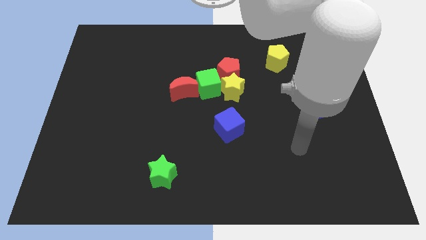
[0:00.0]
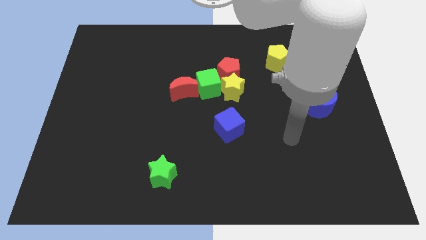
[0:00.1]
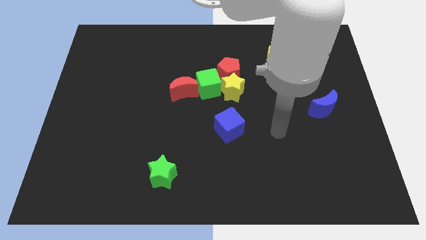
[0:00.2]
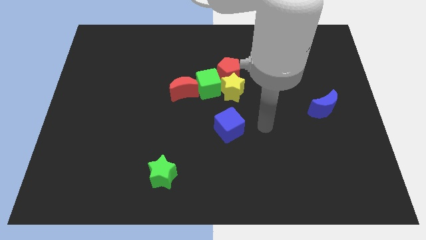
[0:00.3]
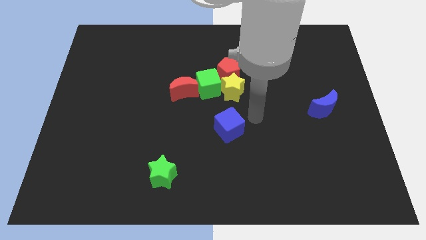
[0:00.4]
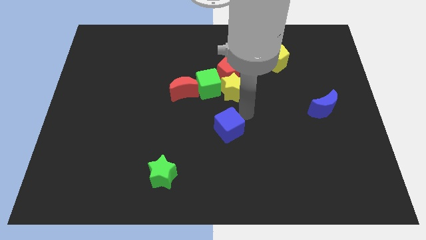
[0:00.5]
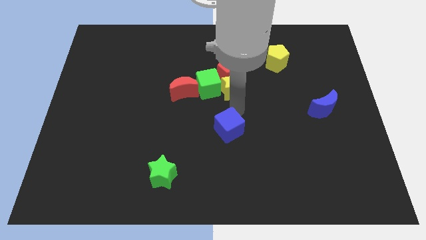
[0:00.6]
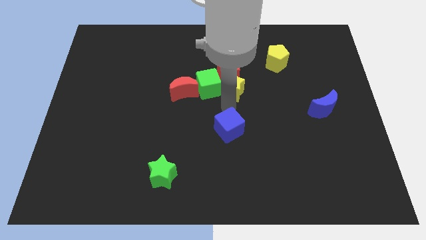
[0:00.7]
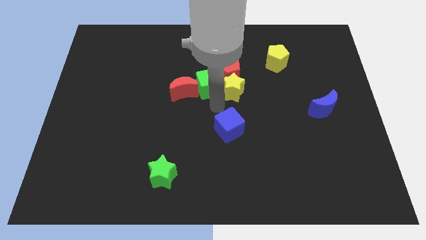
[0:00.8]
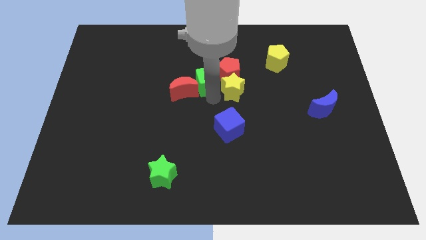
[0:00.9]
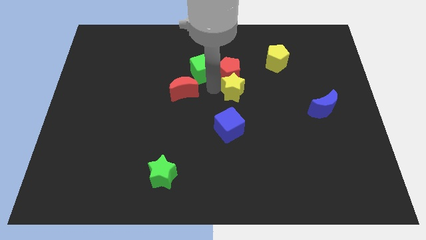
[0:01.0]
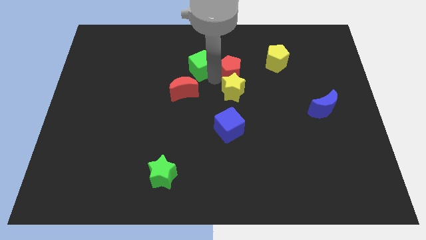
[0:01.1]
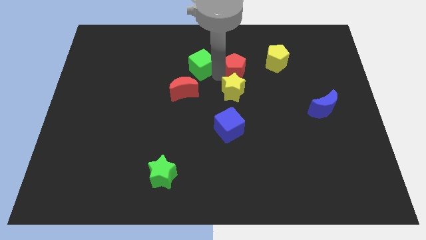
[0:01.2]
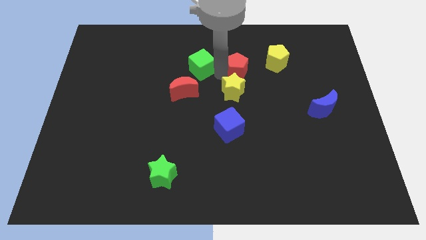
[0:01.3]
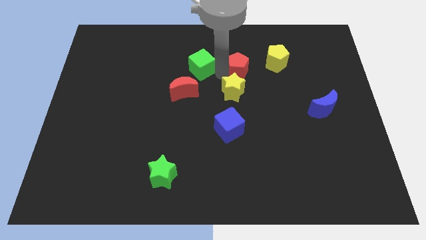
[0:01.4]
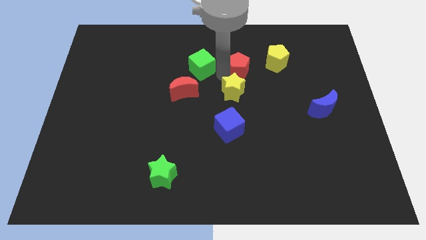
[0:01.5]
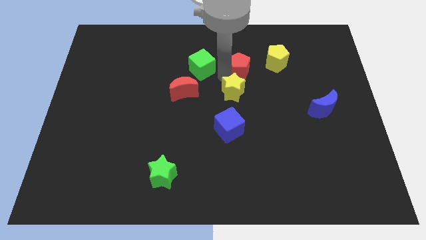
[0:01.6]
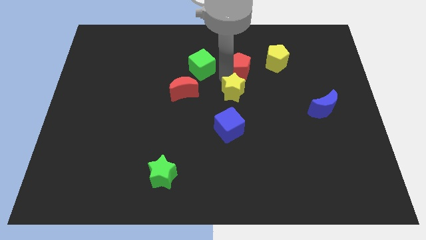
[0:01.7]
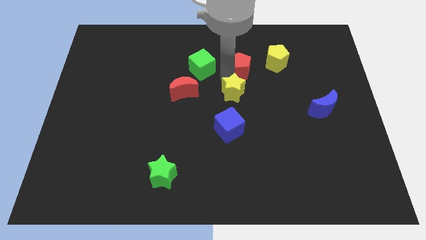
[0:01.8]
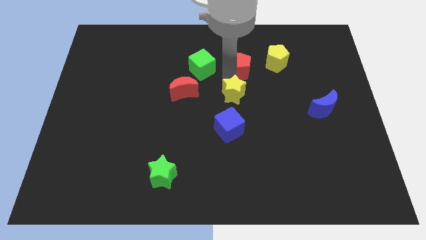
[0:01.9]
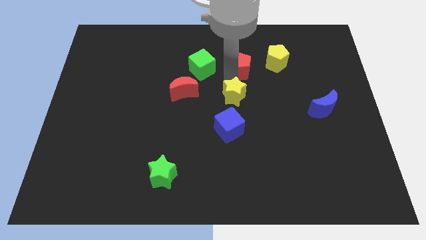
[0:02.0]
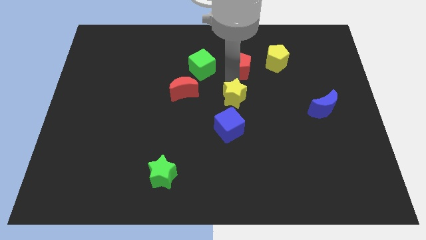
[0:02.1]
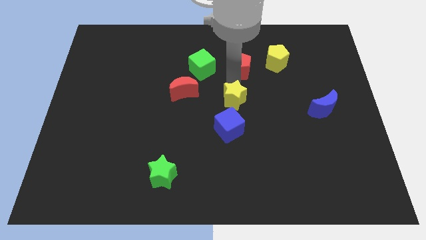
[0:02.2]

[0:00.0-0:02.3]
move the yellow star away from the red pentagon and green cube

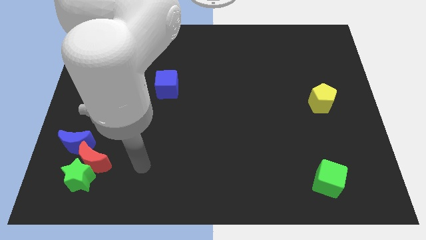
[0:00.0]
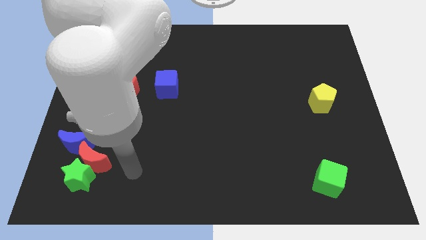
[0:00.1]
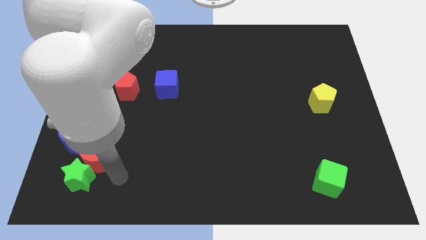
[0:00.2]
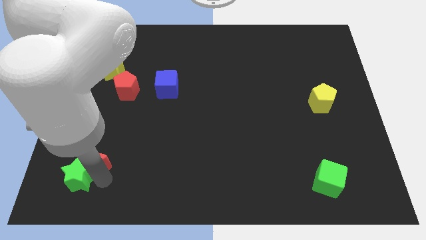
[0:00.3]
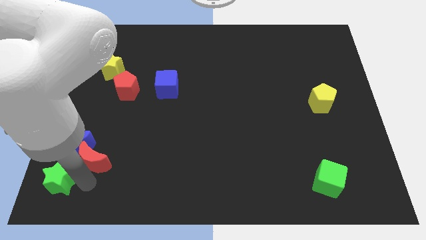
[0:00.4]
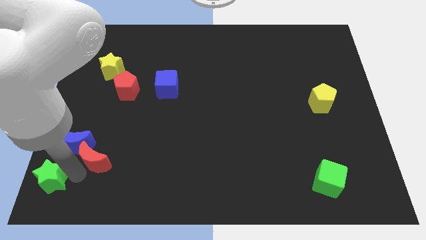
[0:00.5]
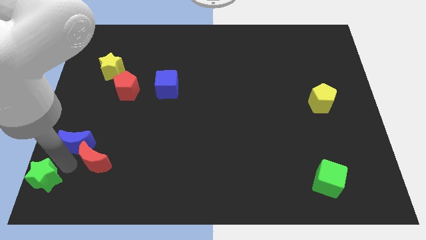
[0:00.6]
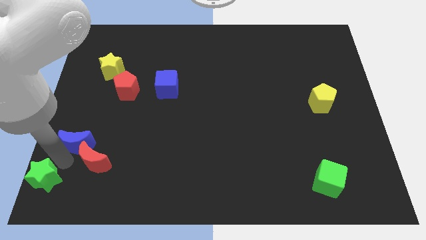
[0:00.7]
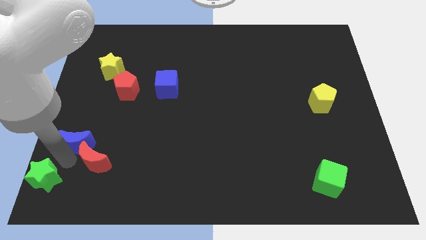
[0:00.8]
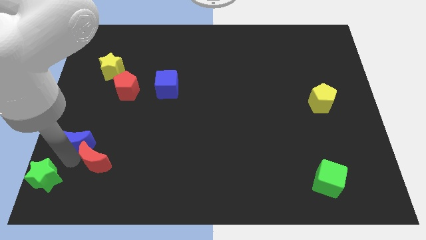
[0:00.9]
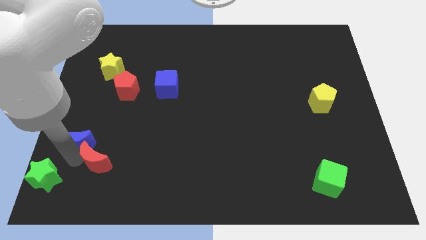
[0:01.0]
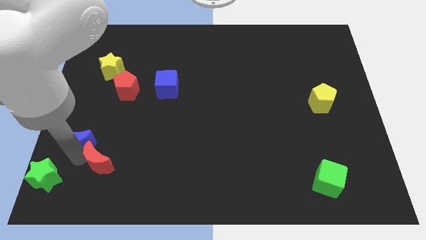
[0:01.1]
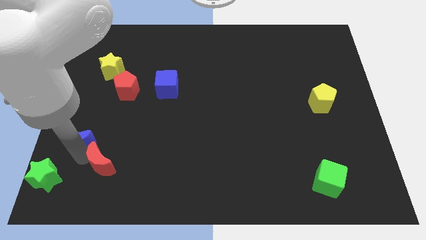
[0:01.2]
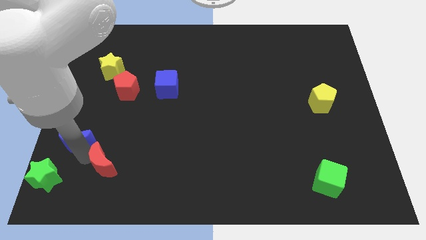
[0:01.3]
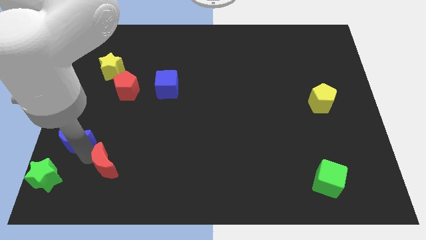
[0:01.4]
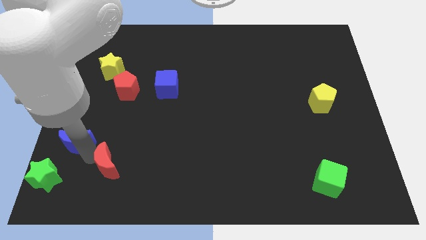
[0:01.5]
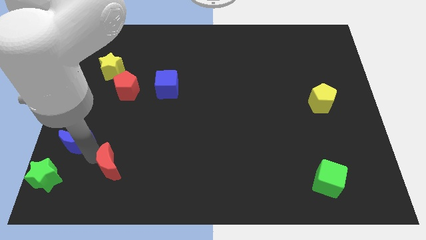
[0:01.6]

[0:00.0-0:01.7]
pull the red moon apart from the green star and blue moon

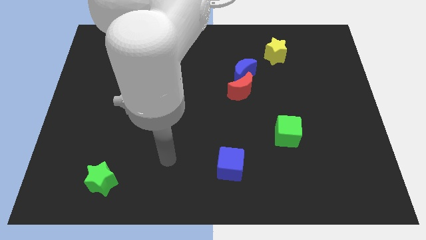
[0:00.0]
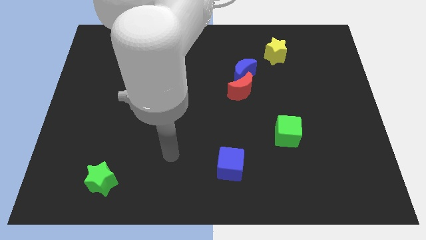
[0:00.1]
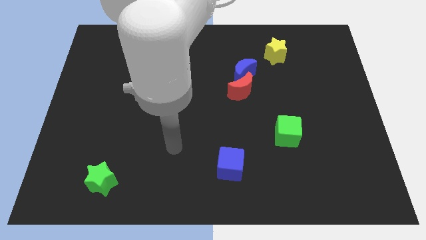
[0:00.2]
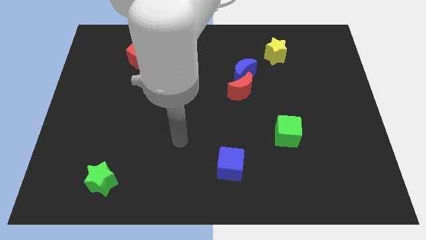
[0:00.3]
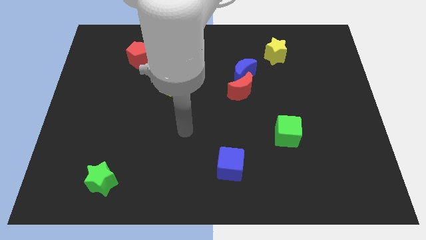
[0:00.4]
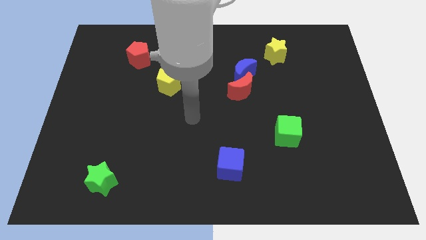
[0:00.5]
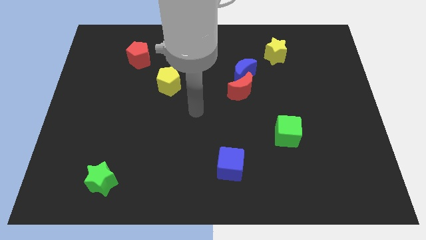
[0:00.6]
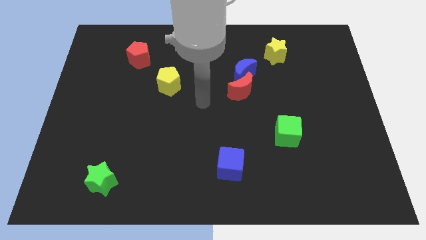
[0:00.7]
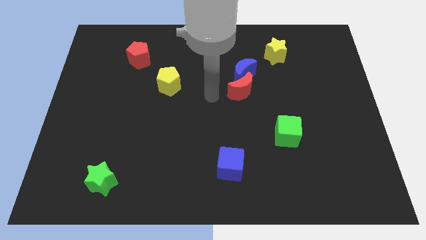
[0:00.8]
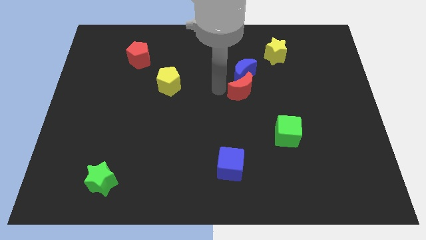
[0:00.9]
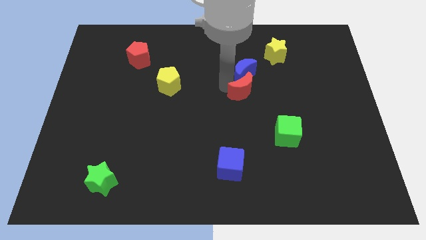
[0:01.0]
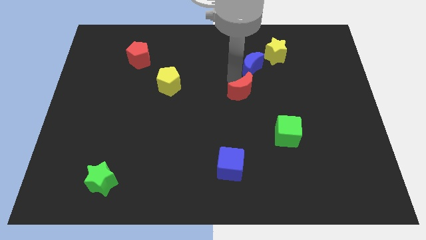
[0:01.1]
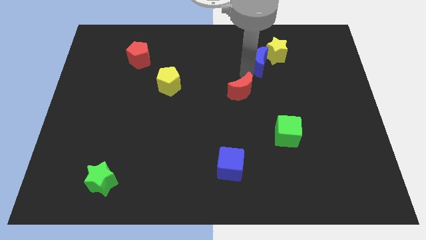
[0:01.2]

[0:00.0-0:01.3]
move the red moon away from the blue moon

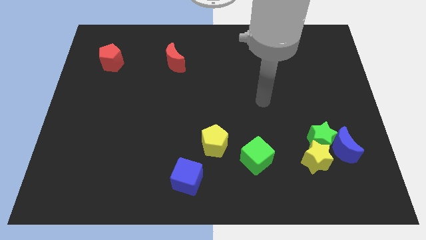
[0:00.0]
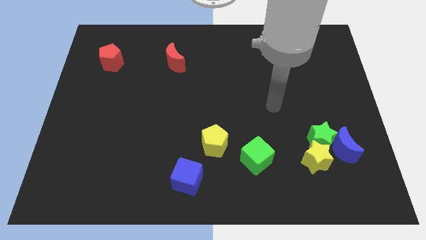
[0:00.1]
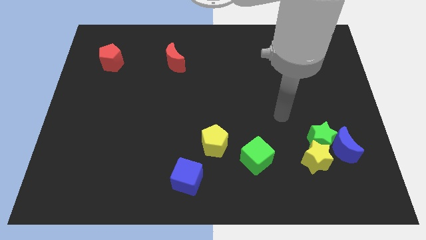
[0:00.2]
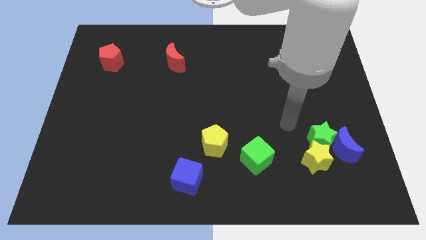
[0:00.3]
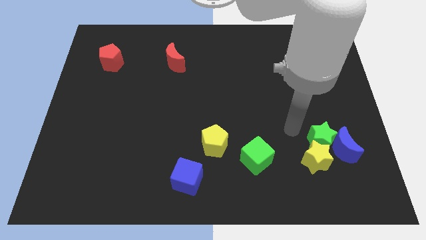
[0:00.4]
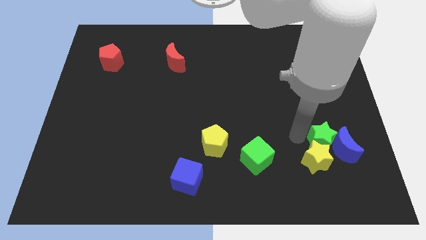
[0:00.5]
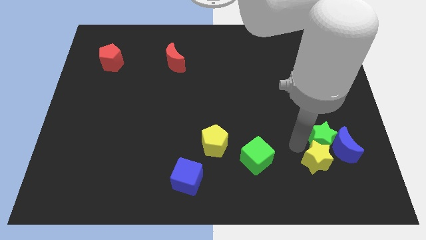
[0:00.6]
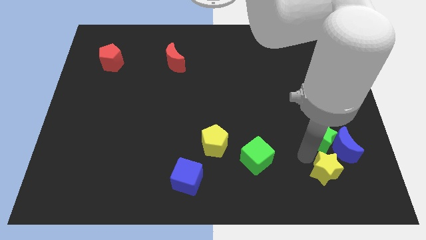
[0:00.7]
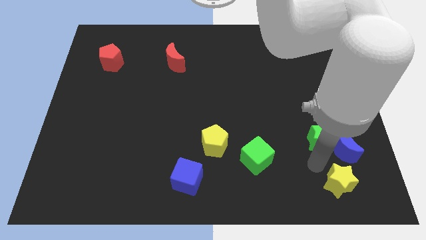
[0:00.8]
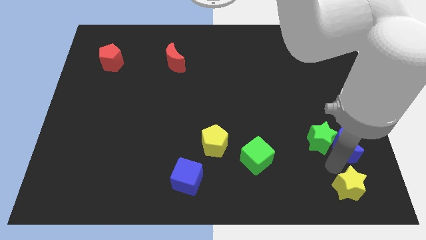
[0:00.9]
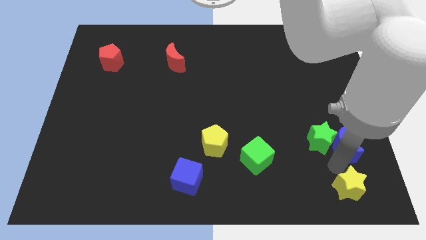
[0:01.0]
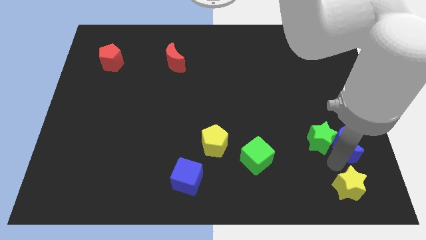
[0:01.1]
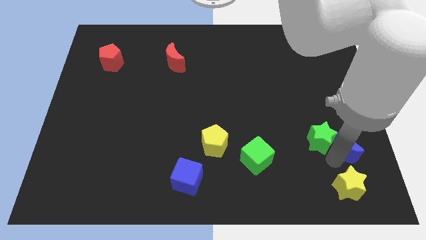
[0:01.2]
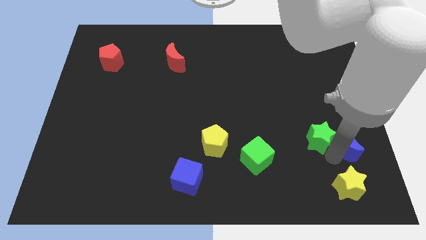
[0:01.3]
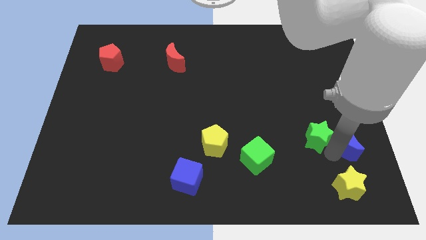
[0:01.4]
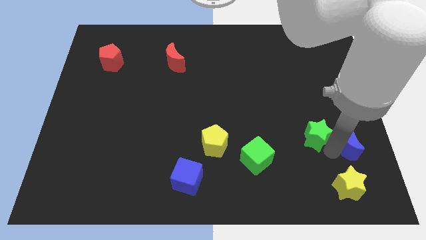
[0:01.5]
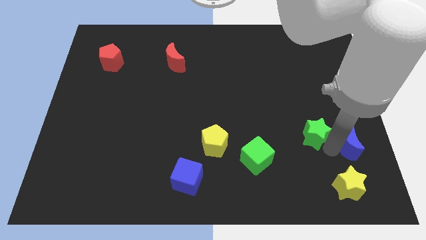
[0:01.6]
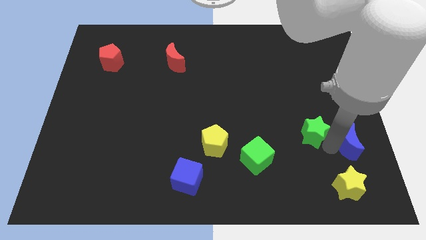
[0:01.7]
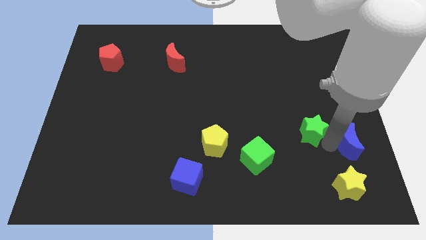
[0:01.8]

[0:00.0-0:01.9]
move the green star away from the blue moon and yellow star

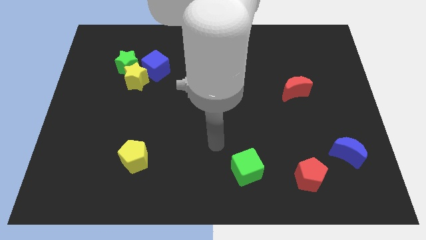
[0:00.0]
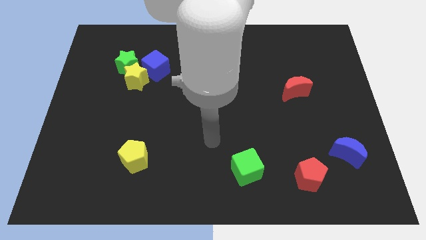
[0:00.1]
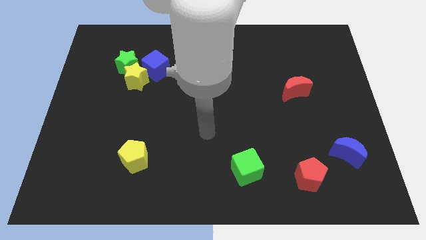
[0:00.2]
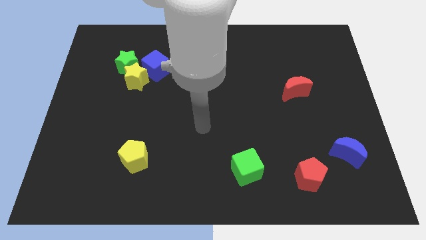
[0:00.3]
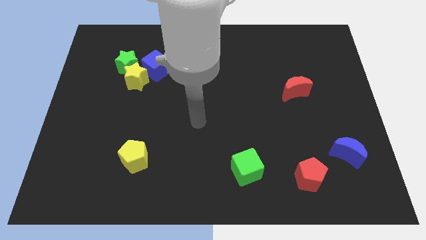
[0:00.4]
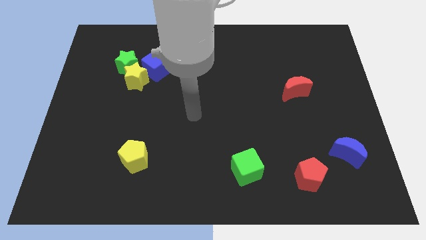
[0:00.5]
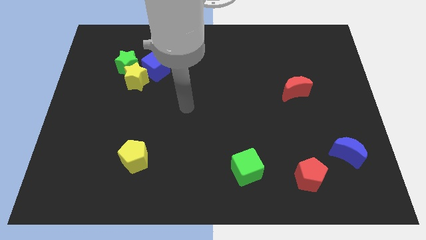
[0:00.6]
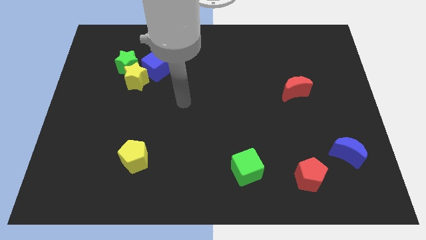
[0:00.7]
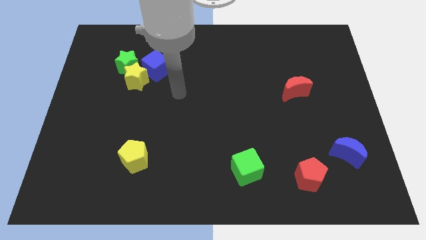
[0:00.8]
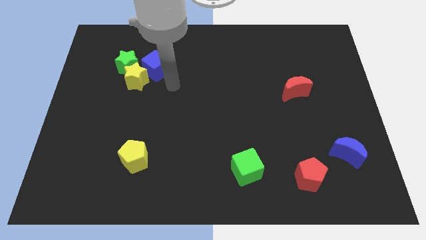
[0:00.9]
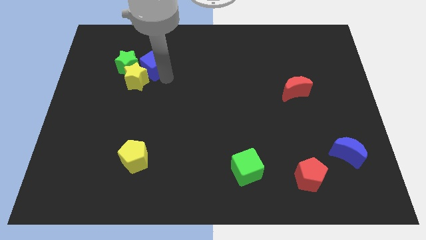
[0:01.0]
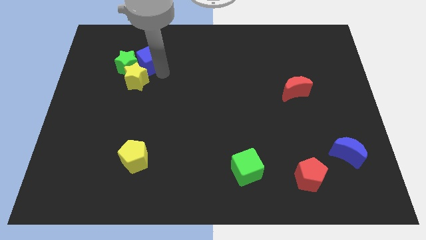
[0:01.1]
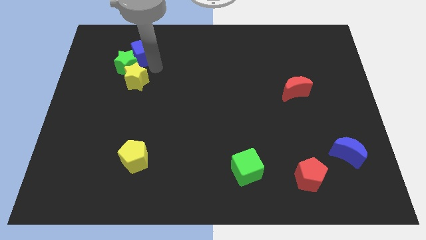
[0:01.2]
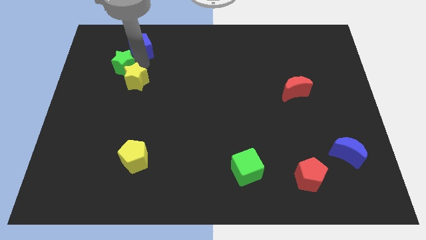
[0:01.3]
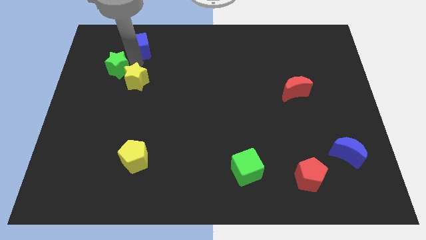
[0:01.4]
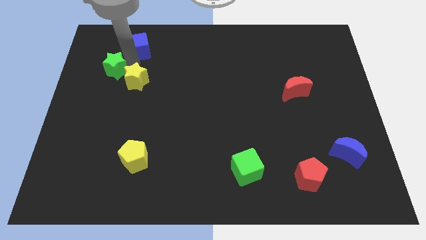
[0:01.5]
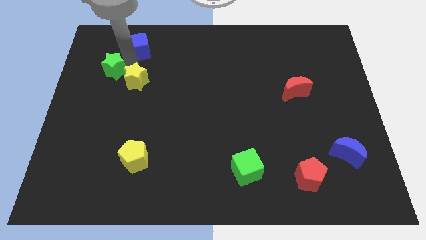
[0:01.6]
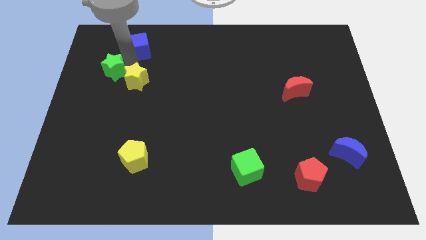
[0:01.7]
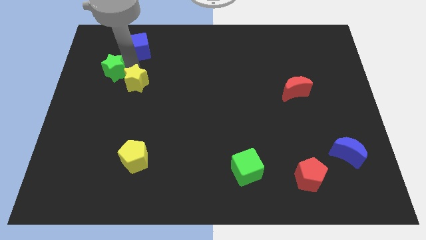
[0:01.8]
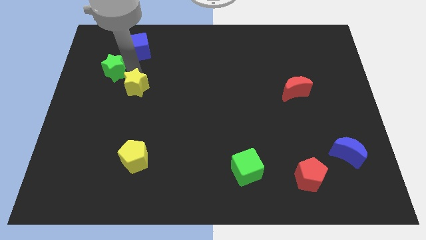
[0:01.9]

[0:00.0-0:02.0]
separate the yellow star from the green star and blue cube

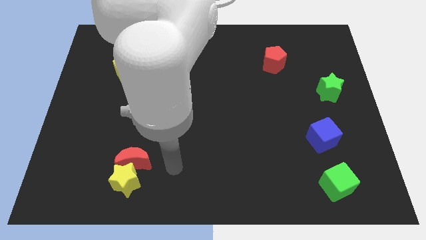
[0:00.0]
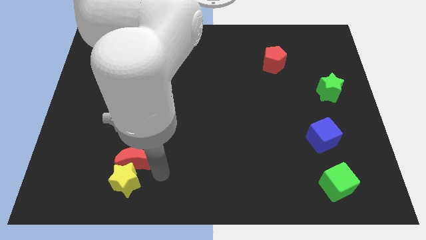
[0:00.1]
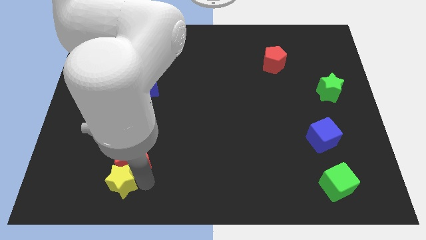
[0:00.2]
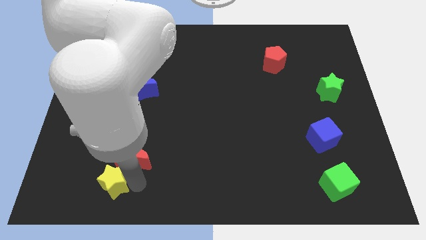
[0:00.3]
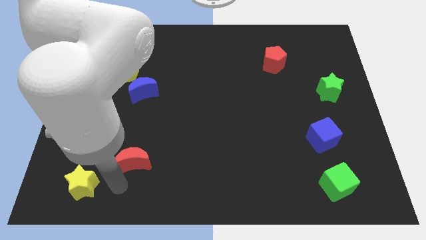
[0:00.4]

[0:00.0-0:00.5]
pull the red moon apart from the yellow star
